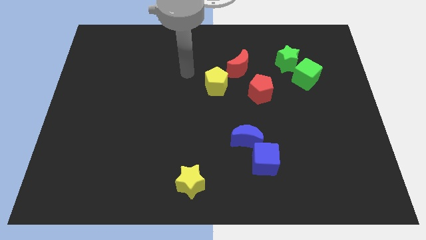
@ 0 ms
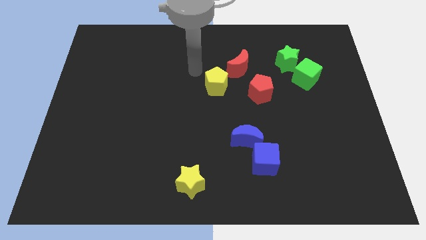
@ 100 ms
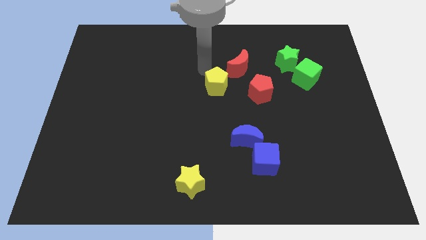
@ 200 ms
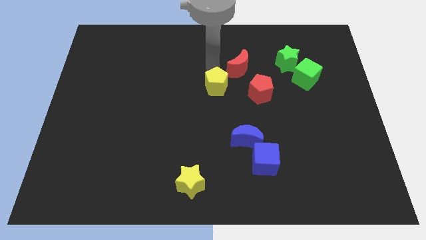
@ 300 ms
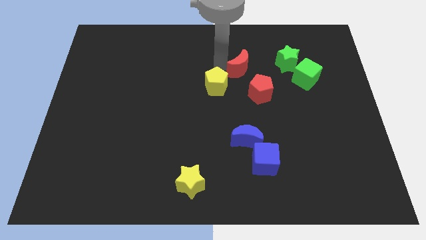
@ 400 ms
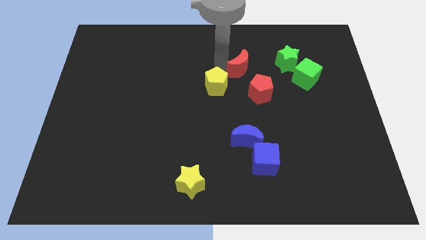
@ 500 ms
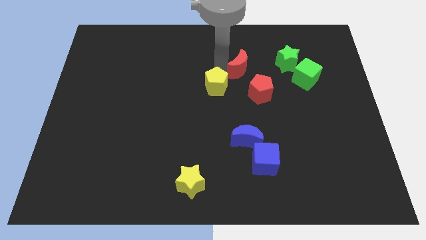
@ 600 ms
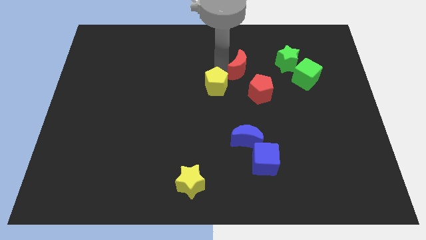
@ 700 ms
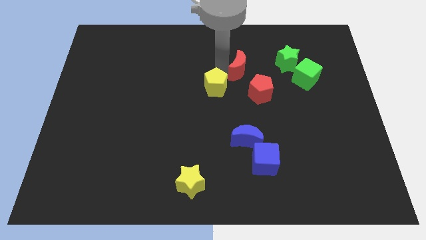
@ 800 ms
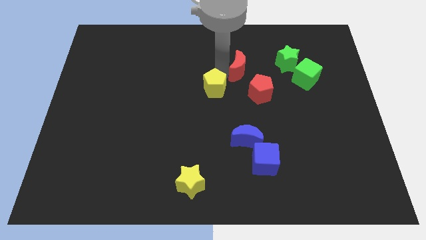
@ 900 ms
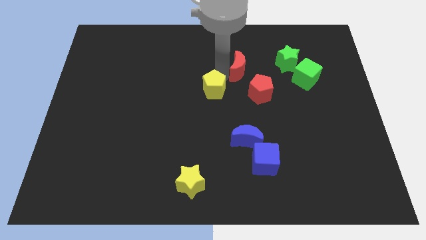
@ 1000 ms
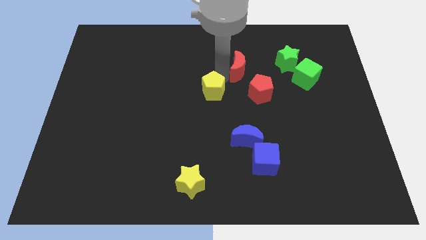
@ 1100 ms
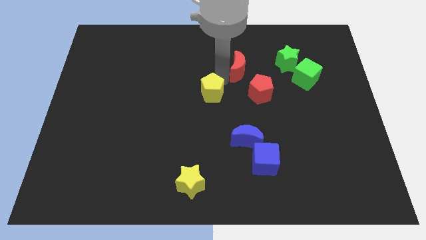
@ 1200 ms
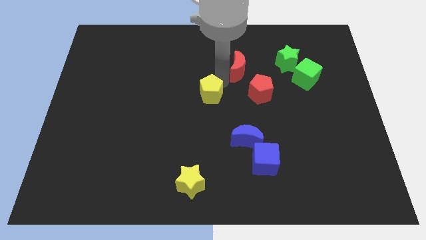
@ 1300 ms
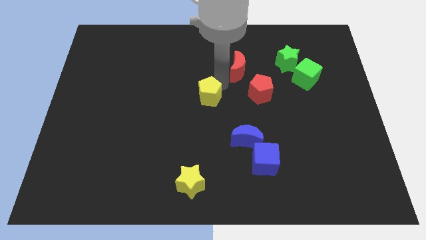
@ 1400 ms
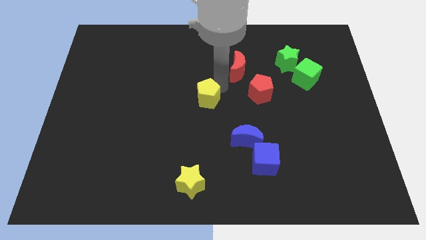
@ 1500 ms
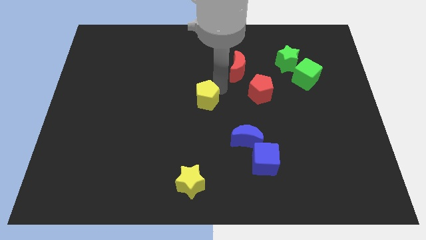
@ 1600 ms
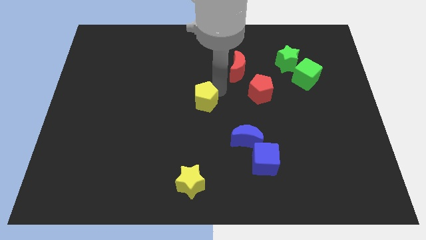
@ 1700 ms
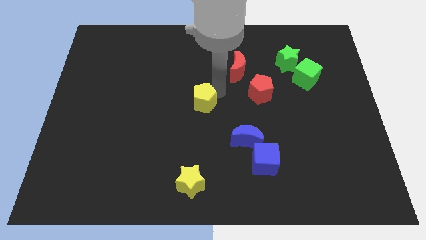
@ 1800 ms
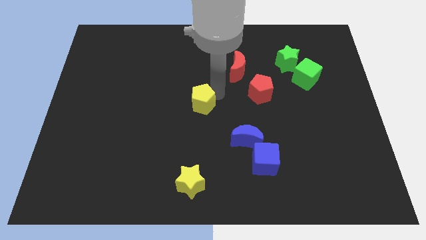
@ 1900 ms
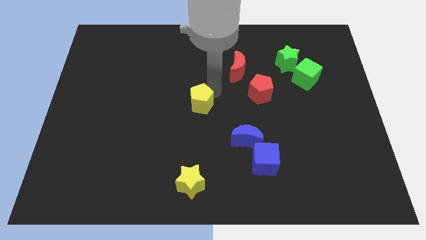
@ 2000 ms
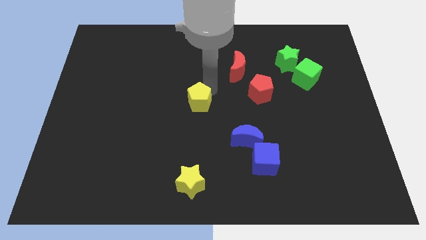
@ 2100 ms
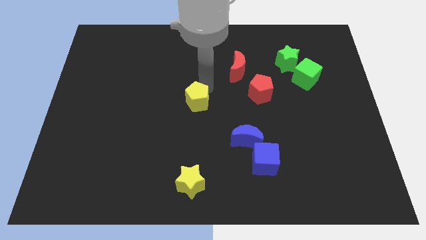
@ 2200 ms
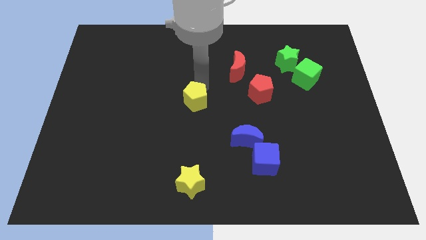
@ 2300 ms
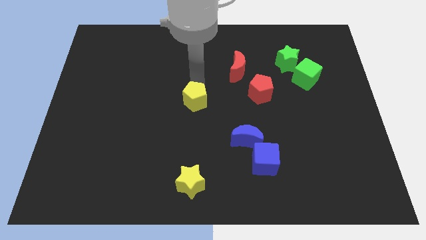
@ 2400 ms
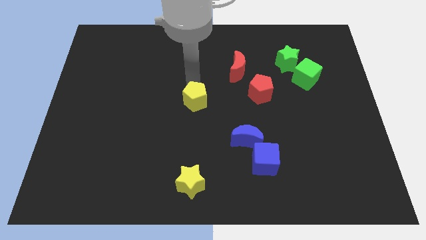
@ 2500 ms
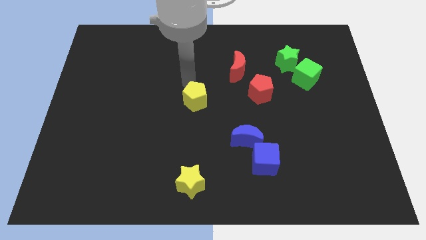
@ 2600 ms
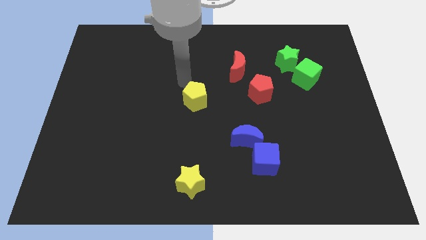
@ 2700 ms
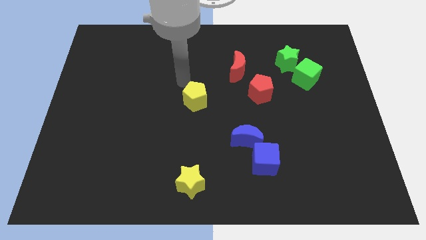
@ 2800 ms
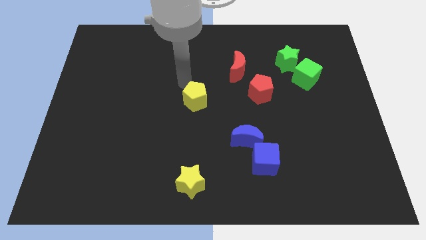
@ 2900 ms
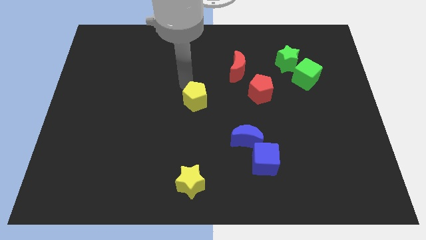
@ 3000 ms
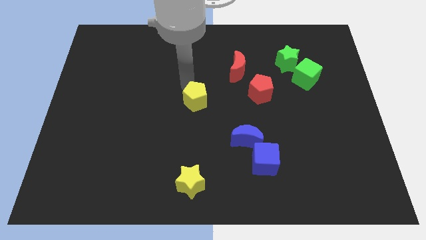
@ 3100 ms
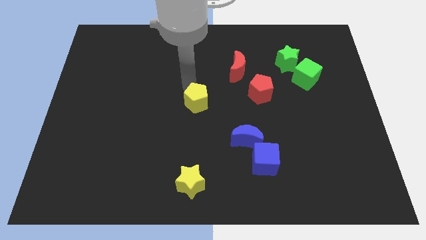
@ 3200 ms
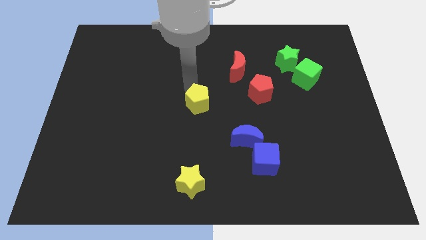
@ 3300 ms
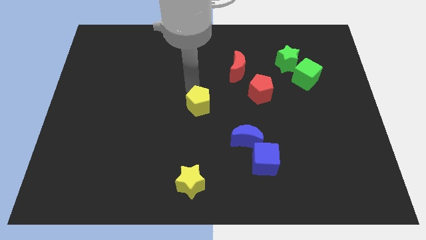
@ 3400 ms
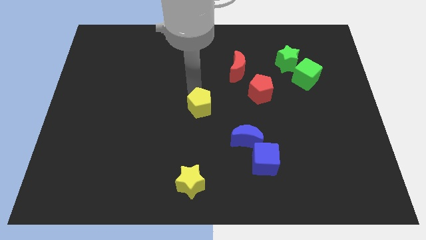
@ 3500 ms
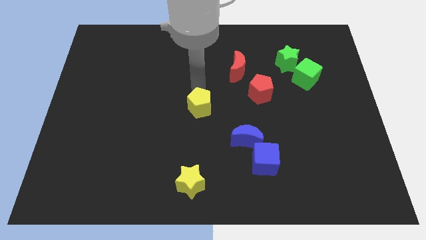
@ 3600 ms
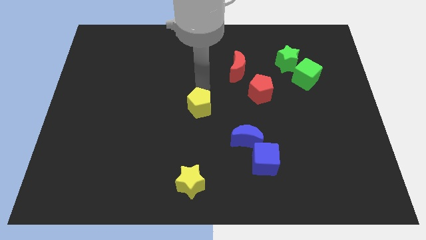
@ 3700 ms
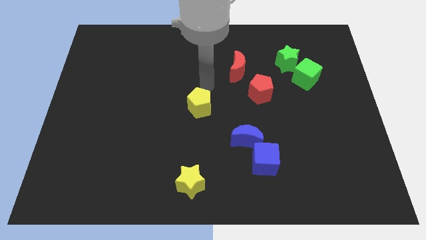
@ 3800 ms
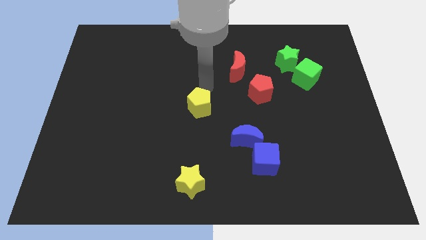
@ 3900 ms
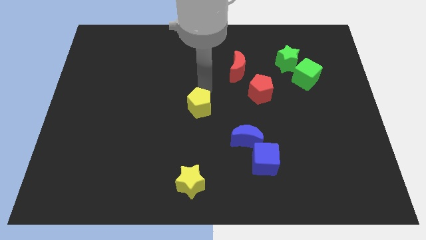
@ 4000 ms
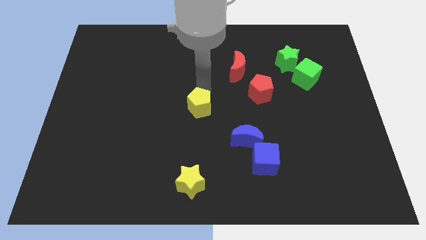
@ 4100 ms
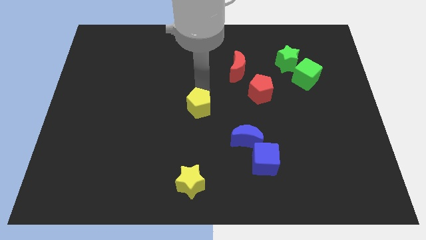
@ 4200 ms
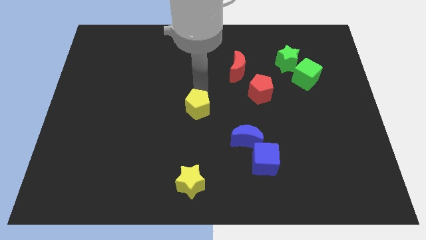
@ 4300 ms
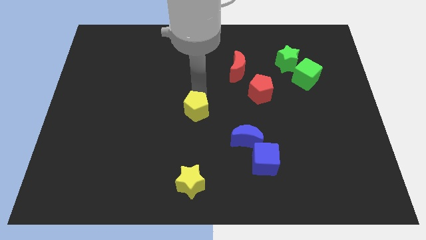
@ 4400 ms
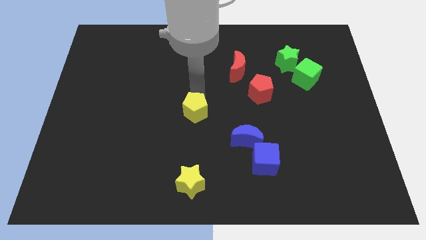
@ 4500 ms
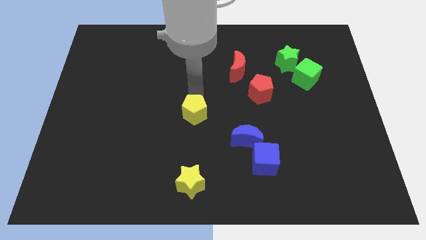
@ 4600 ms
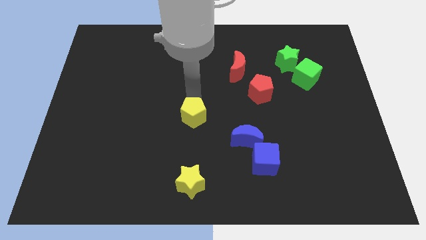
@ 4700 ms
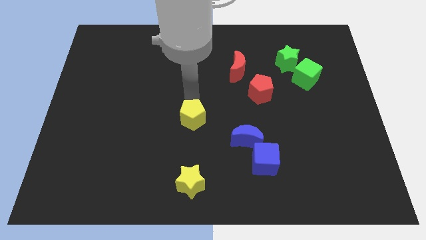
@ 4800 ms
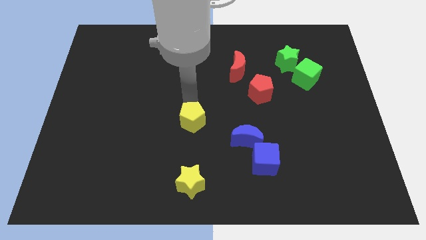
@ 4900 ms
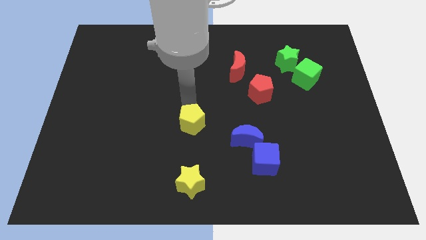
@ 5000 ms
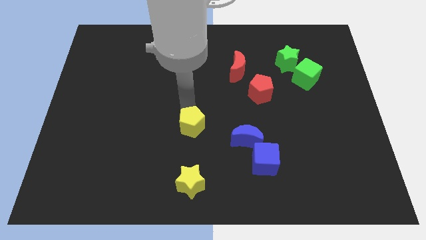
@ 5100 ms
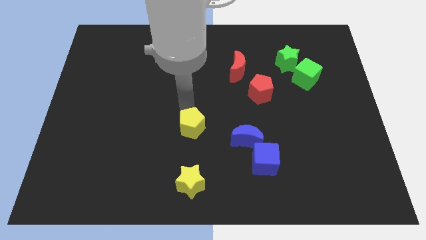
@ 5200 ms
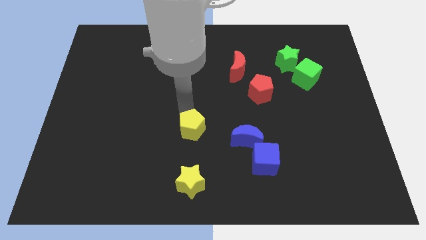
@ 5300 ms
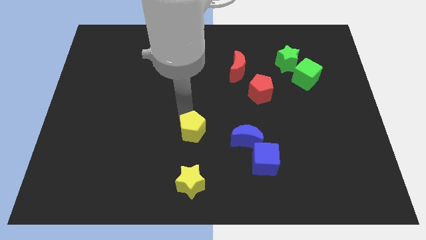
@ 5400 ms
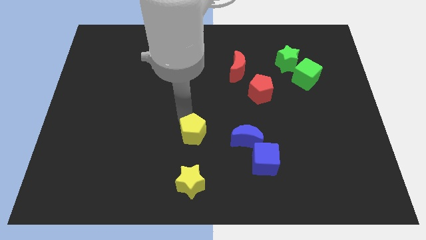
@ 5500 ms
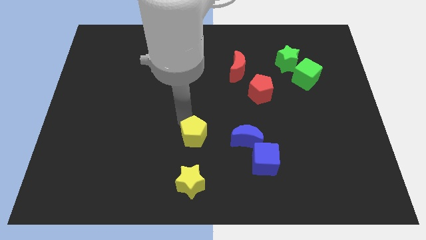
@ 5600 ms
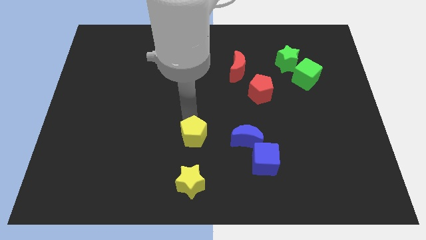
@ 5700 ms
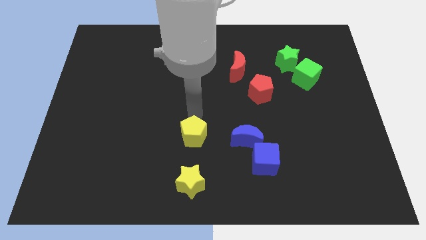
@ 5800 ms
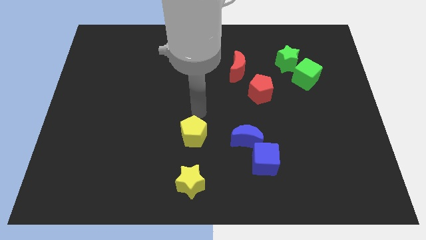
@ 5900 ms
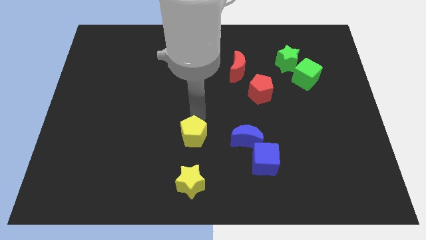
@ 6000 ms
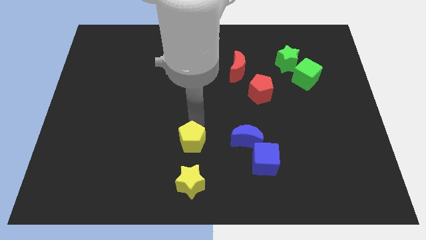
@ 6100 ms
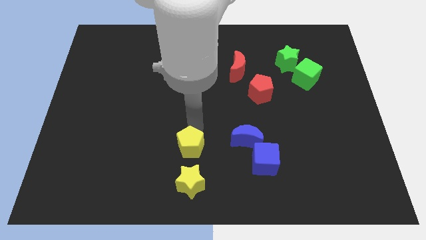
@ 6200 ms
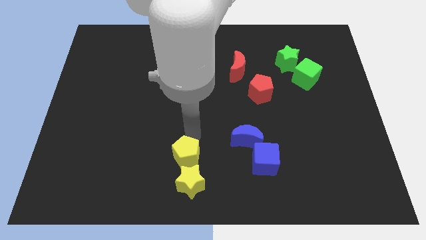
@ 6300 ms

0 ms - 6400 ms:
push the yellow pentagon towards the yellow star

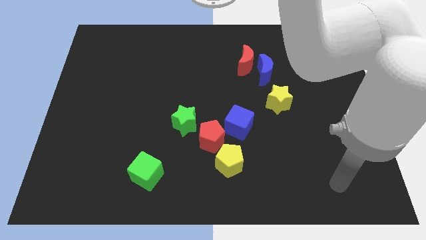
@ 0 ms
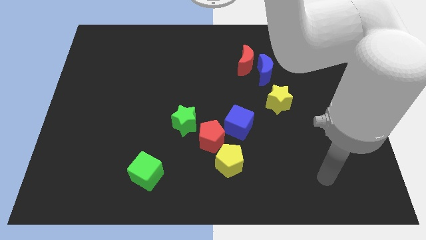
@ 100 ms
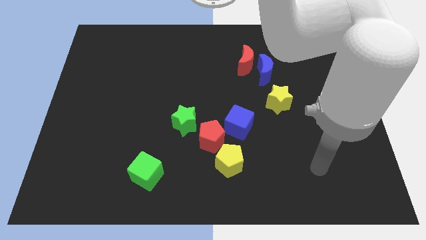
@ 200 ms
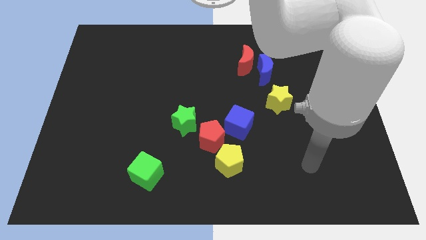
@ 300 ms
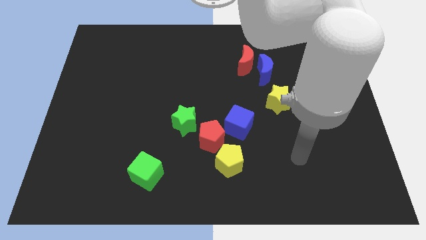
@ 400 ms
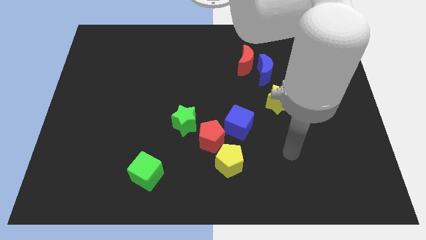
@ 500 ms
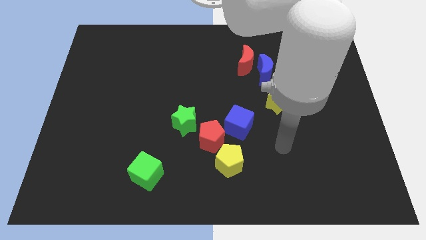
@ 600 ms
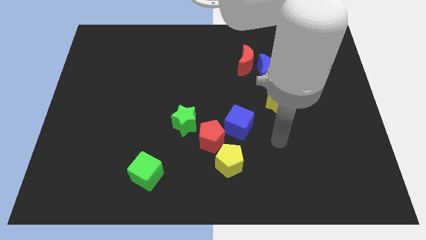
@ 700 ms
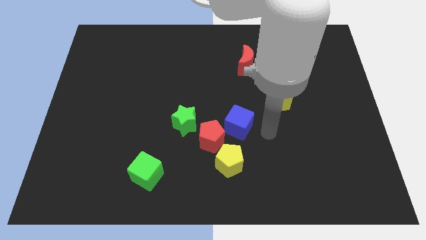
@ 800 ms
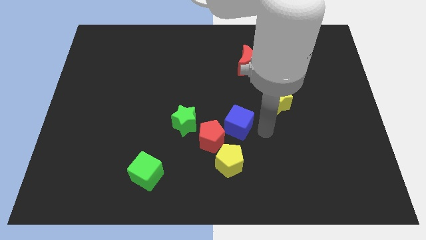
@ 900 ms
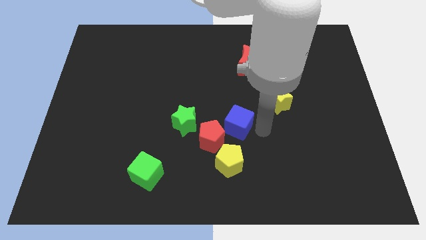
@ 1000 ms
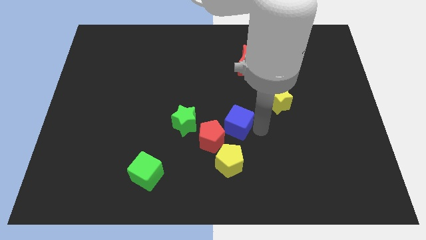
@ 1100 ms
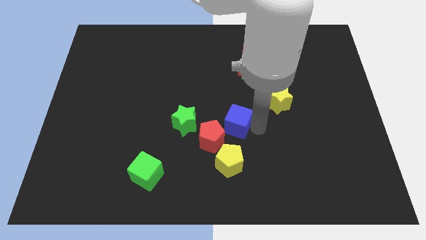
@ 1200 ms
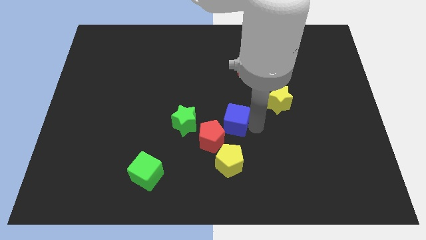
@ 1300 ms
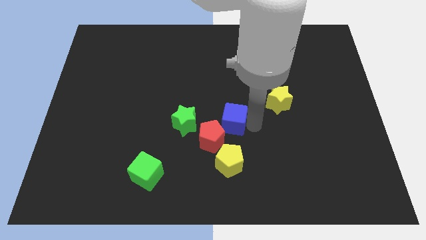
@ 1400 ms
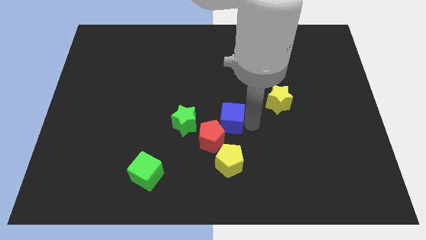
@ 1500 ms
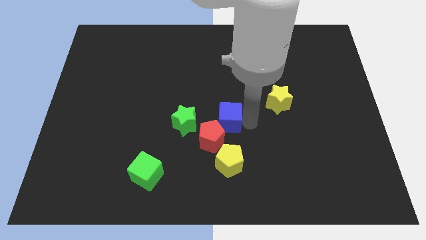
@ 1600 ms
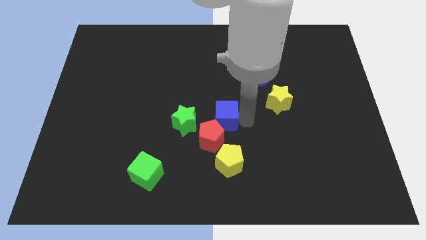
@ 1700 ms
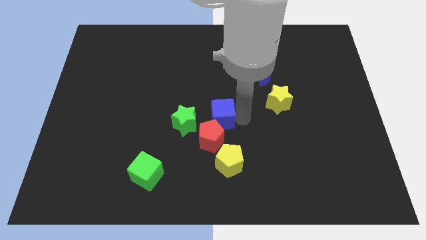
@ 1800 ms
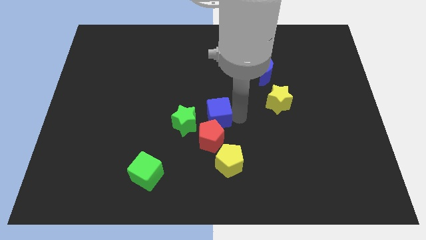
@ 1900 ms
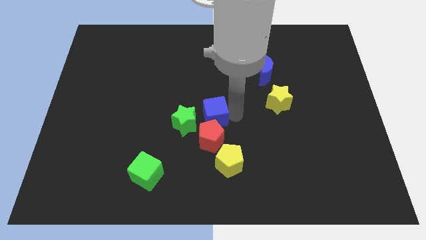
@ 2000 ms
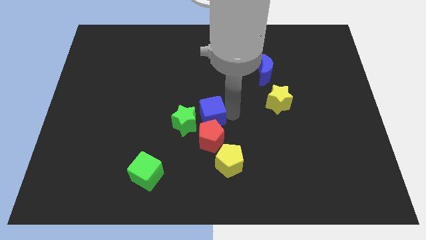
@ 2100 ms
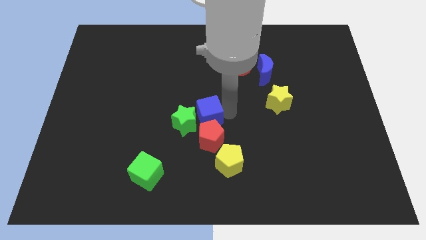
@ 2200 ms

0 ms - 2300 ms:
put the blue cube next to the green star
